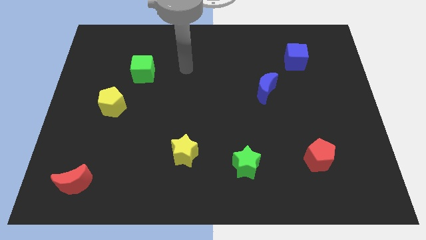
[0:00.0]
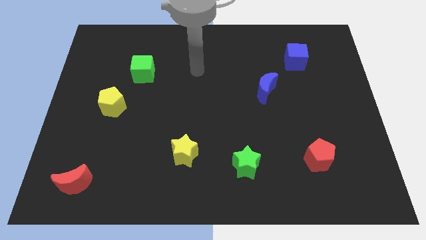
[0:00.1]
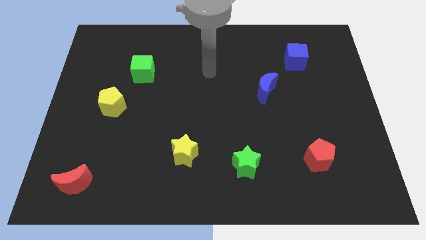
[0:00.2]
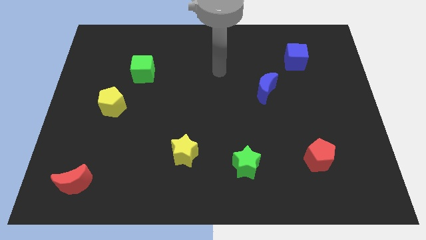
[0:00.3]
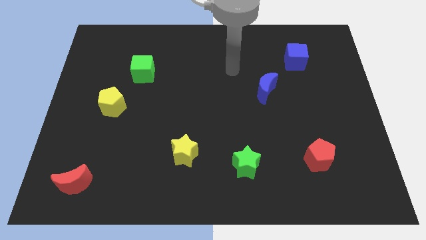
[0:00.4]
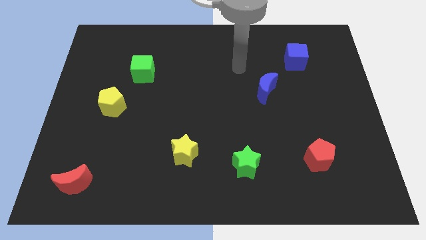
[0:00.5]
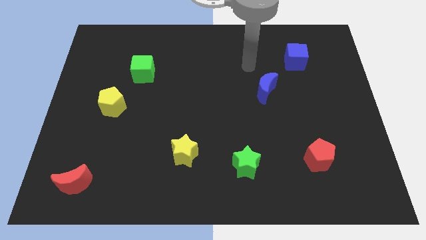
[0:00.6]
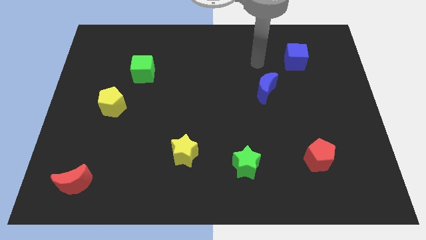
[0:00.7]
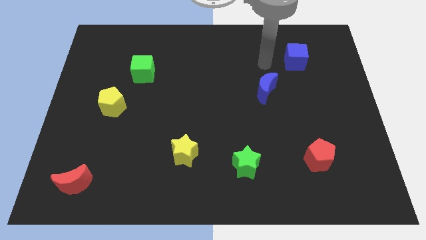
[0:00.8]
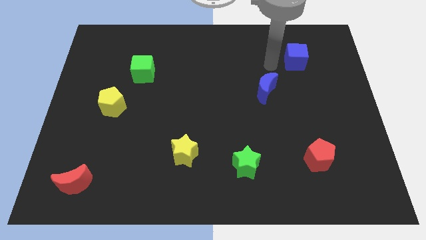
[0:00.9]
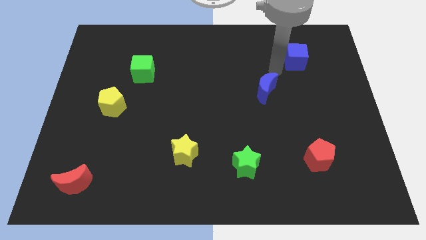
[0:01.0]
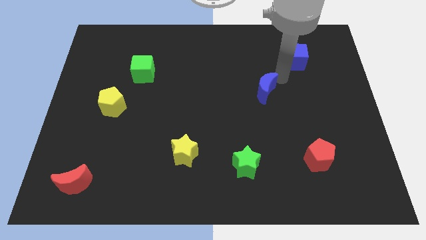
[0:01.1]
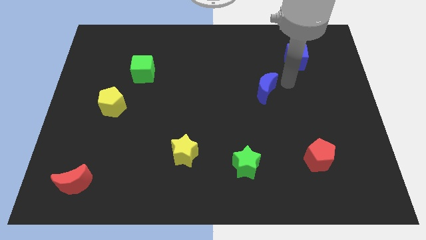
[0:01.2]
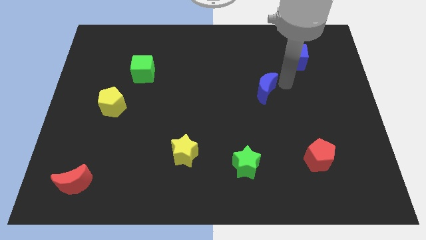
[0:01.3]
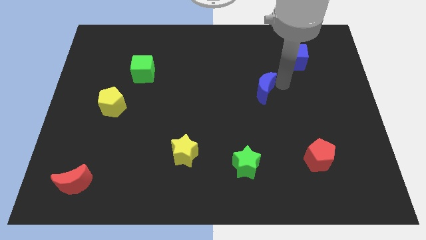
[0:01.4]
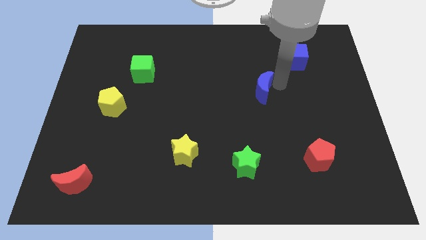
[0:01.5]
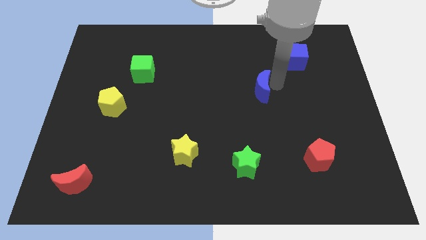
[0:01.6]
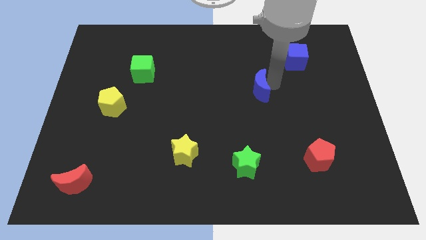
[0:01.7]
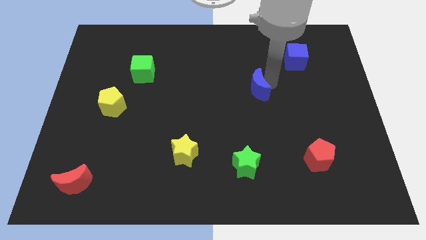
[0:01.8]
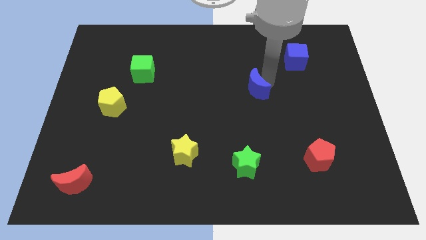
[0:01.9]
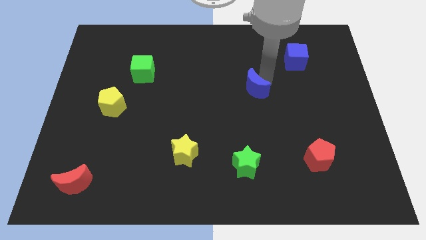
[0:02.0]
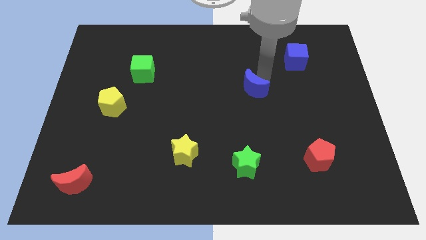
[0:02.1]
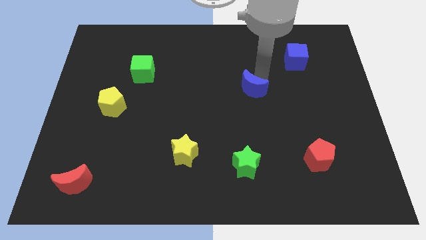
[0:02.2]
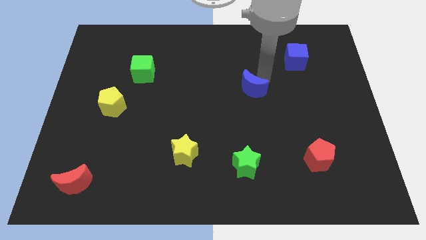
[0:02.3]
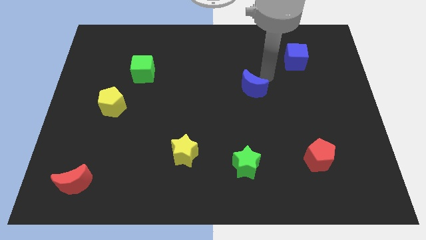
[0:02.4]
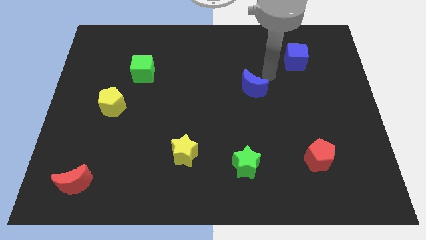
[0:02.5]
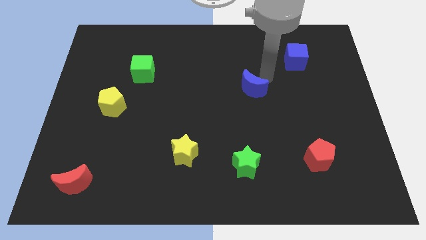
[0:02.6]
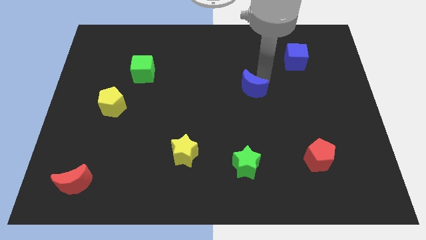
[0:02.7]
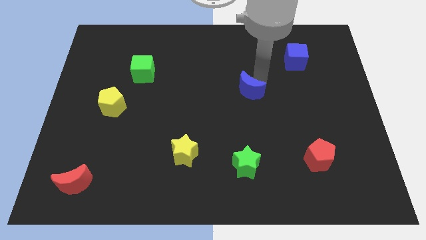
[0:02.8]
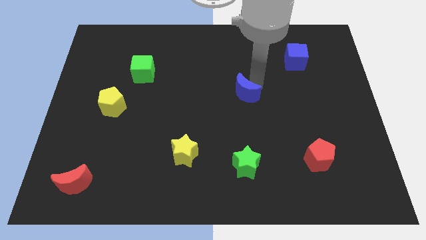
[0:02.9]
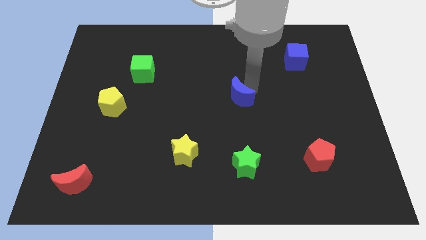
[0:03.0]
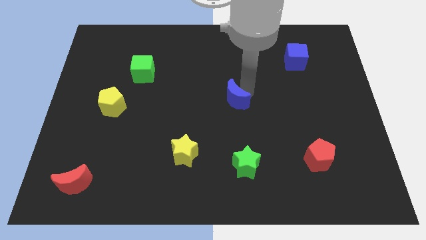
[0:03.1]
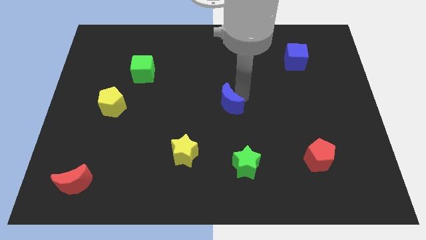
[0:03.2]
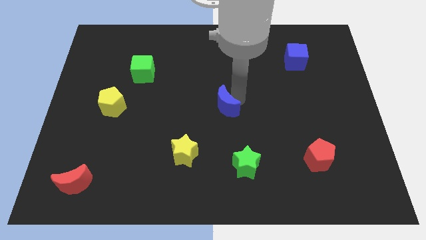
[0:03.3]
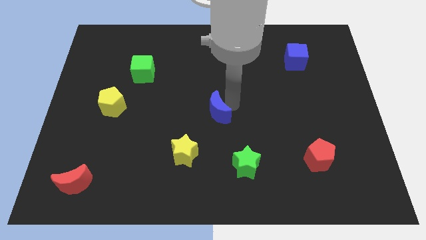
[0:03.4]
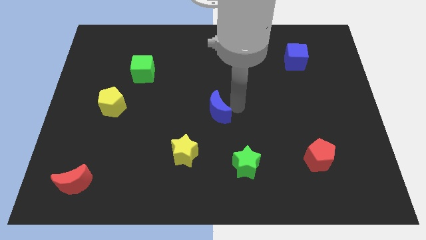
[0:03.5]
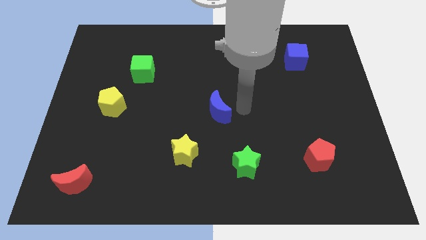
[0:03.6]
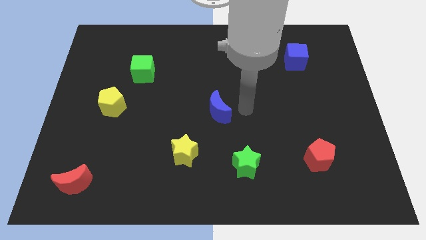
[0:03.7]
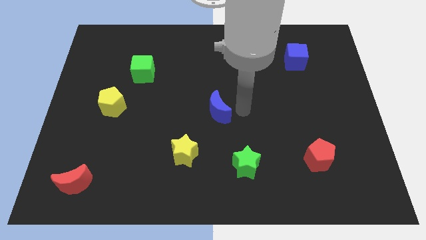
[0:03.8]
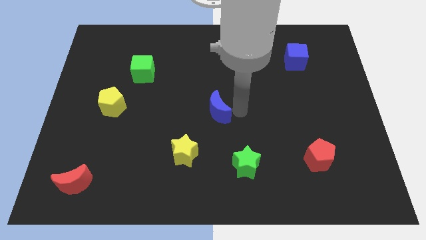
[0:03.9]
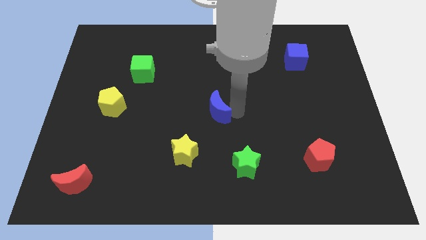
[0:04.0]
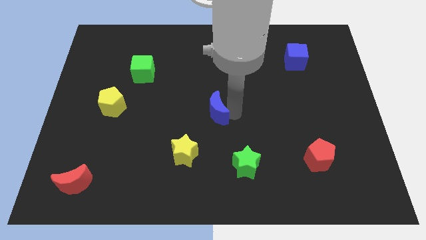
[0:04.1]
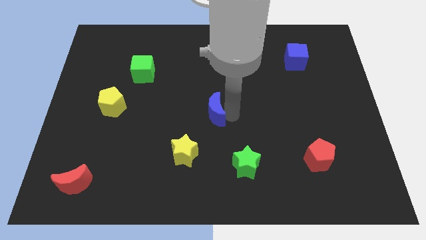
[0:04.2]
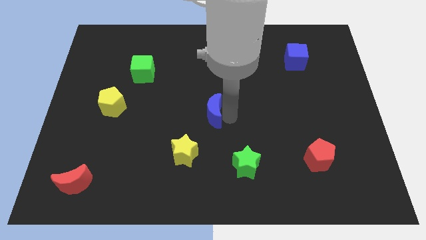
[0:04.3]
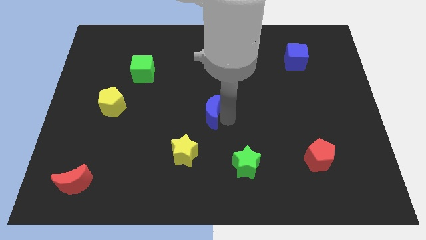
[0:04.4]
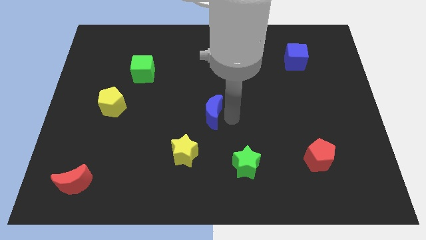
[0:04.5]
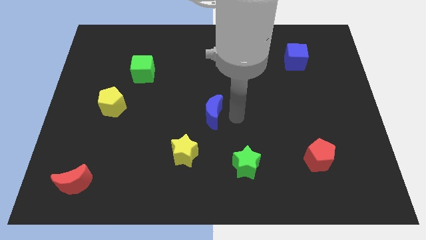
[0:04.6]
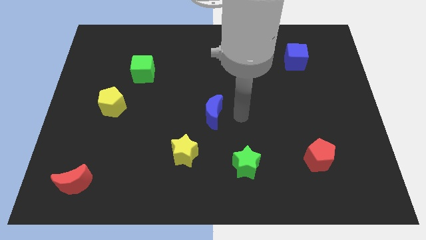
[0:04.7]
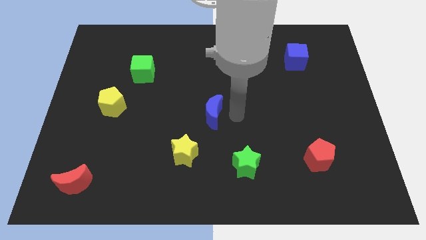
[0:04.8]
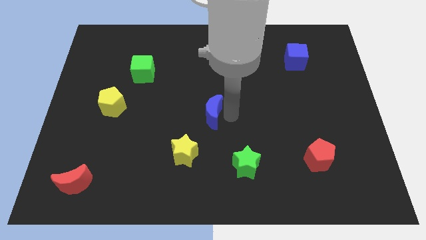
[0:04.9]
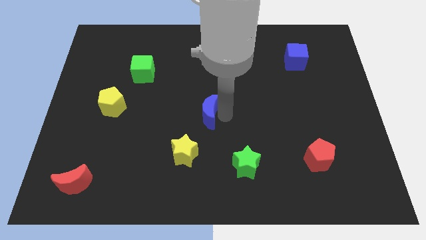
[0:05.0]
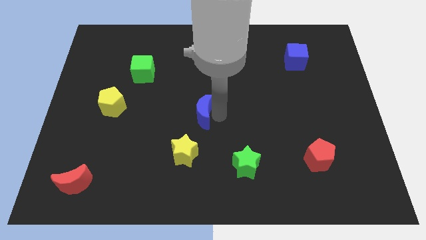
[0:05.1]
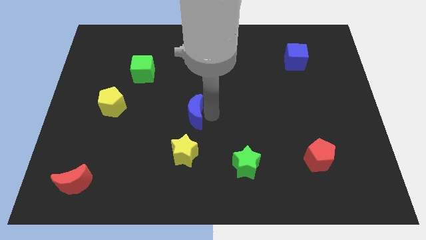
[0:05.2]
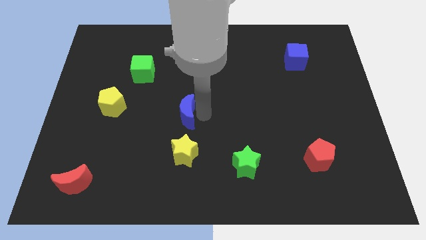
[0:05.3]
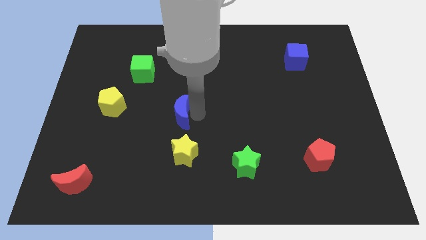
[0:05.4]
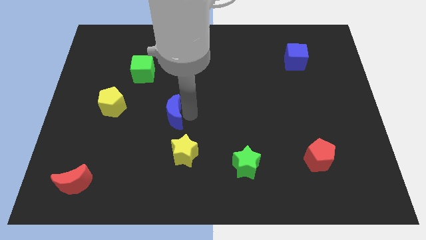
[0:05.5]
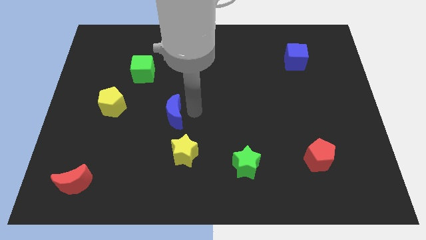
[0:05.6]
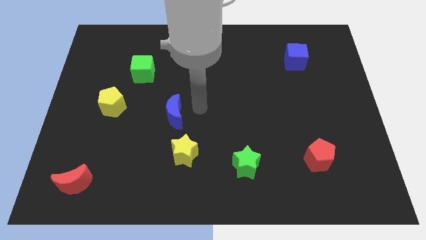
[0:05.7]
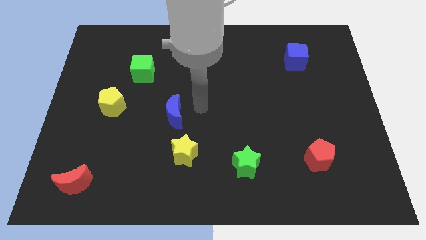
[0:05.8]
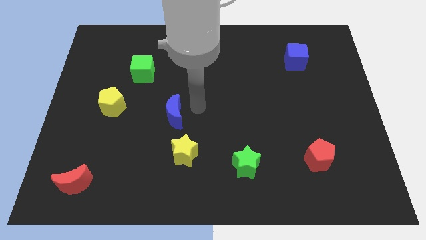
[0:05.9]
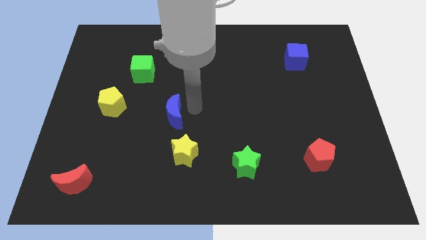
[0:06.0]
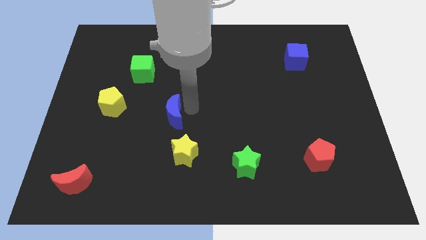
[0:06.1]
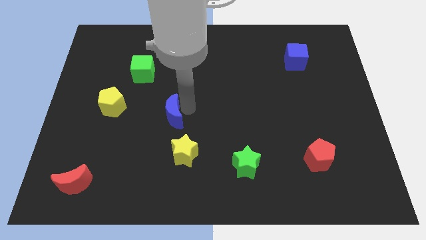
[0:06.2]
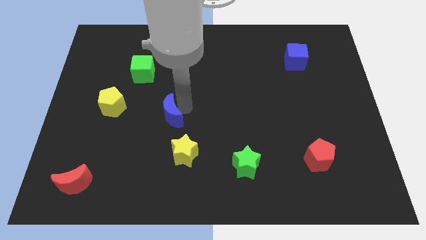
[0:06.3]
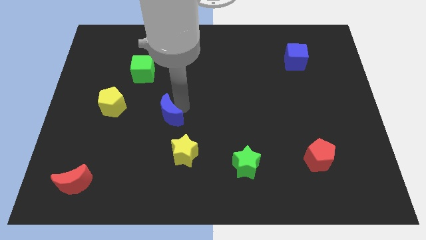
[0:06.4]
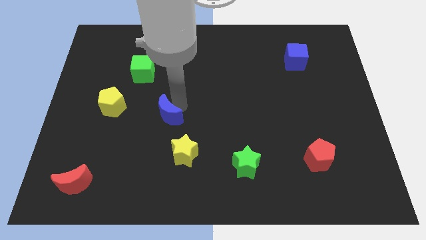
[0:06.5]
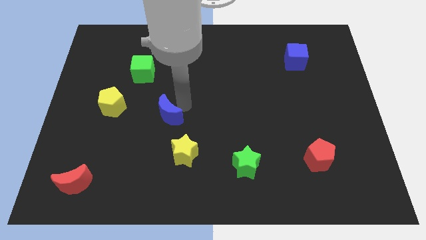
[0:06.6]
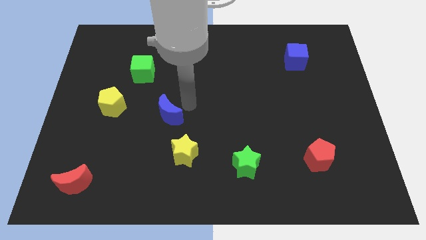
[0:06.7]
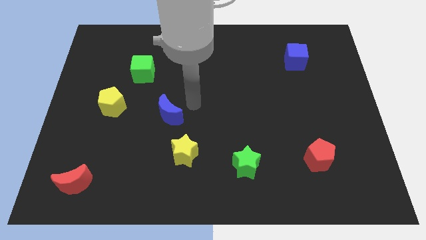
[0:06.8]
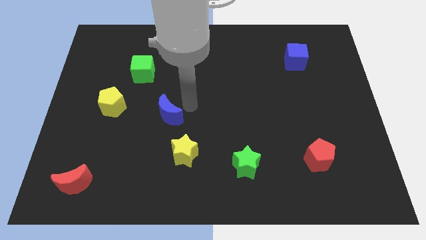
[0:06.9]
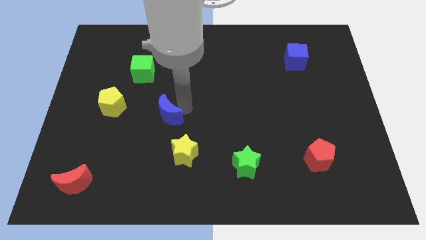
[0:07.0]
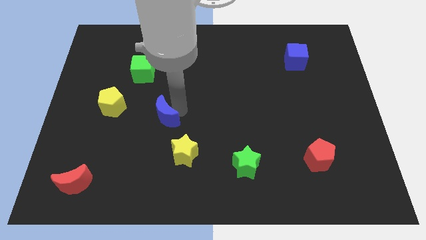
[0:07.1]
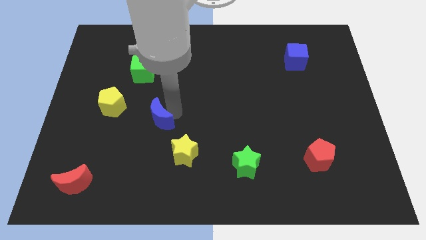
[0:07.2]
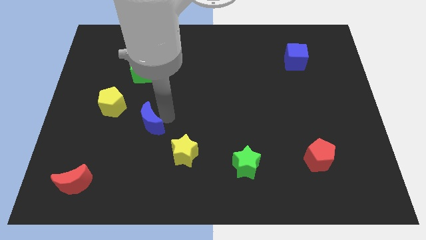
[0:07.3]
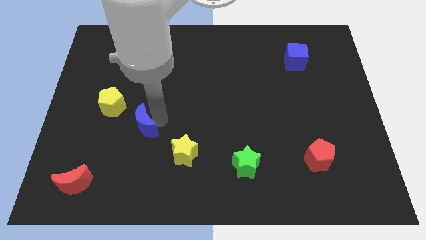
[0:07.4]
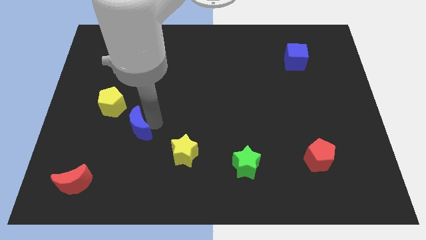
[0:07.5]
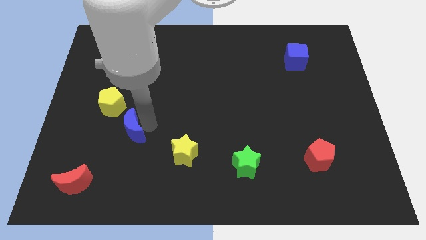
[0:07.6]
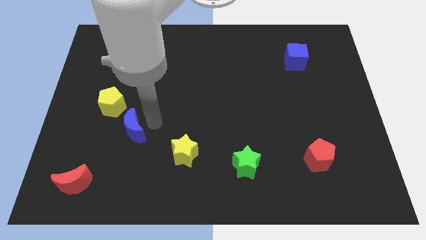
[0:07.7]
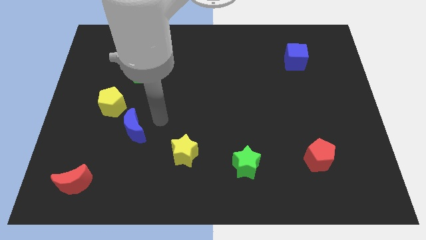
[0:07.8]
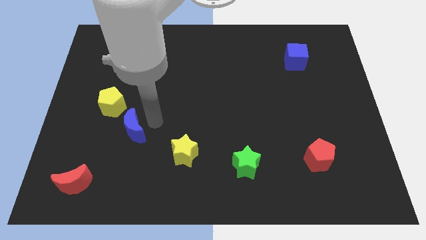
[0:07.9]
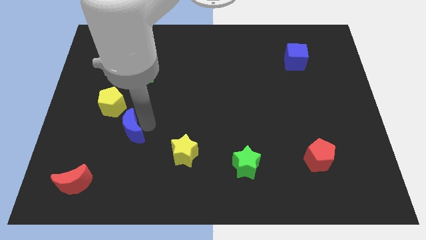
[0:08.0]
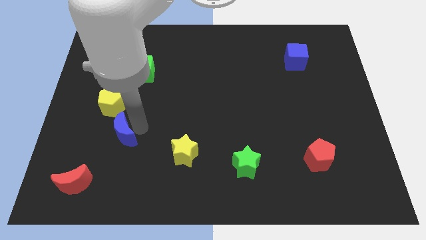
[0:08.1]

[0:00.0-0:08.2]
put the blue moon to the bottom of the yellow pentagon
